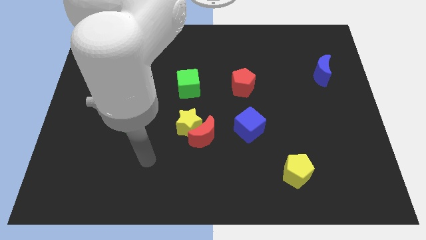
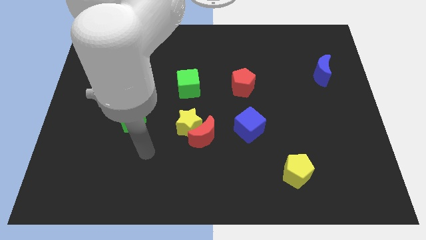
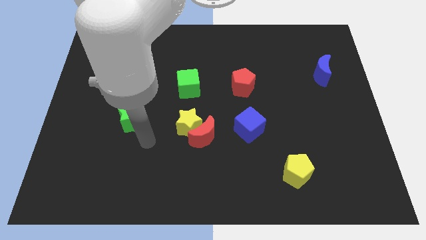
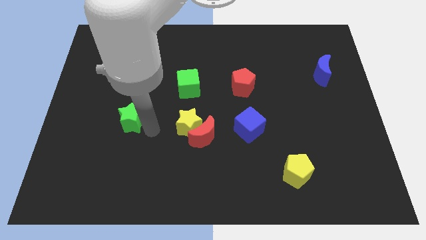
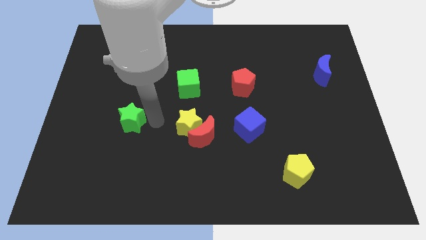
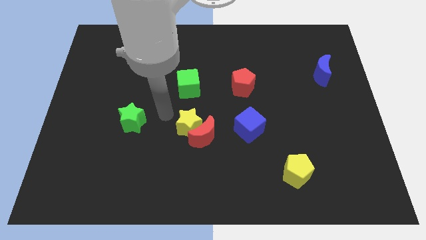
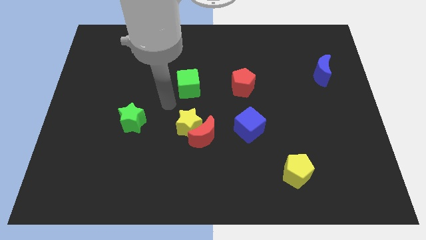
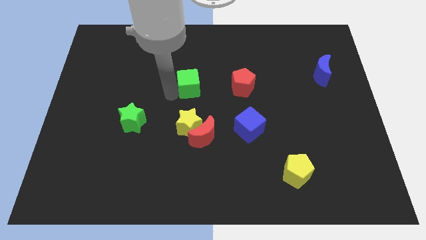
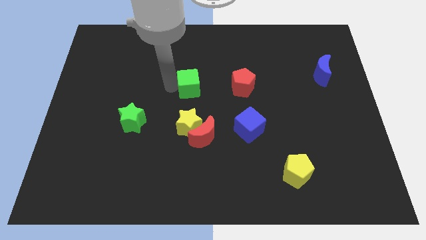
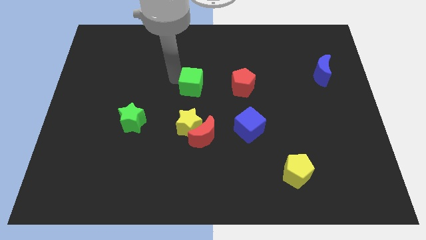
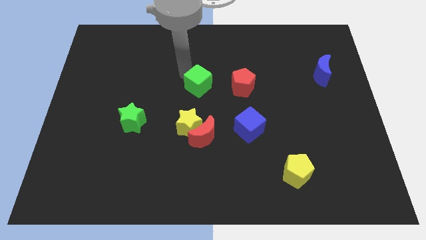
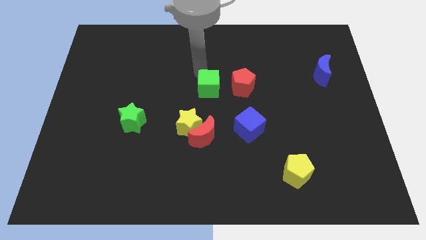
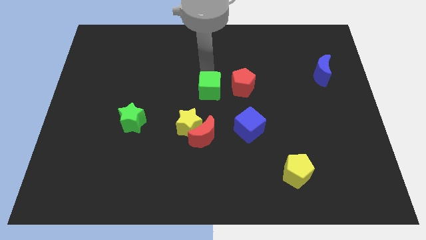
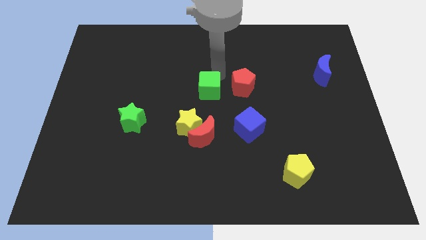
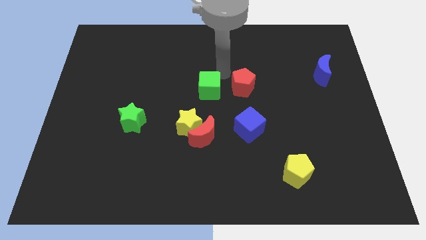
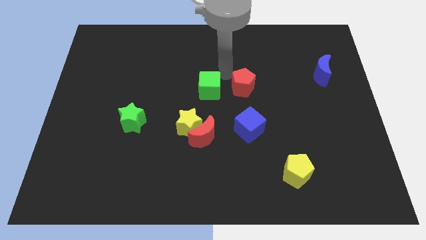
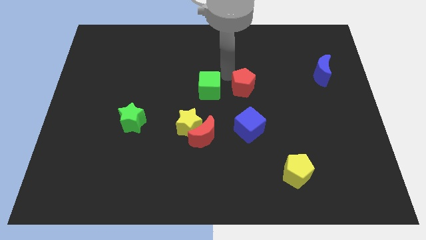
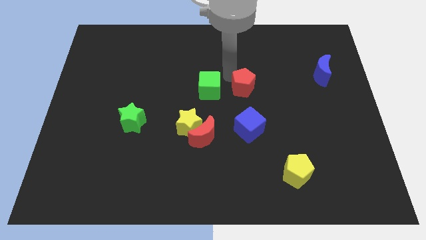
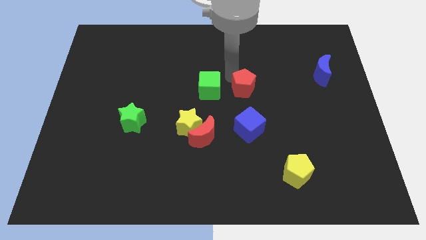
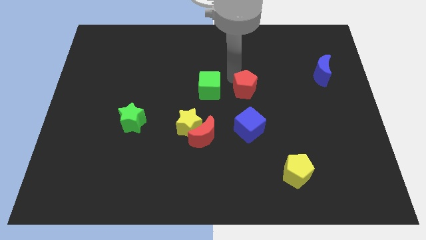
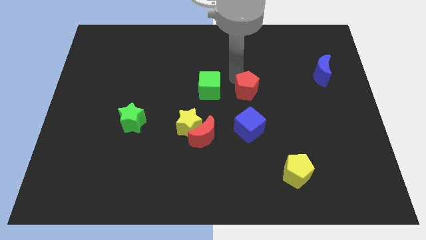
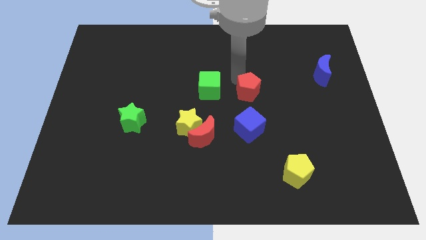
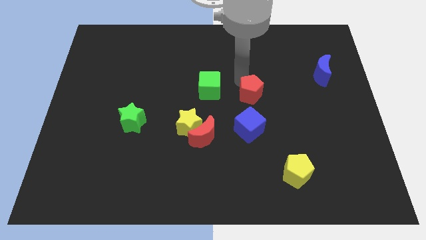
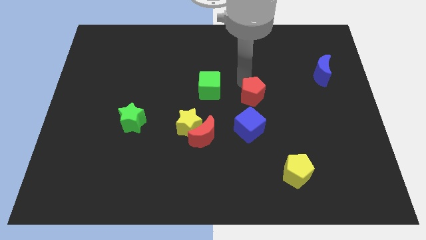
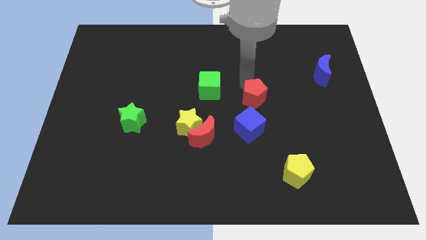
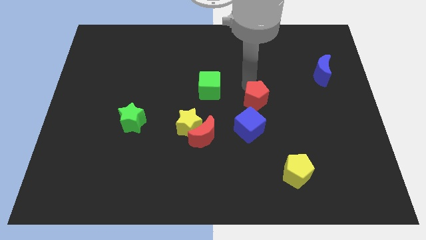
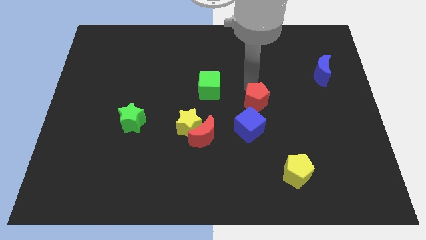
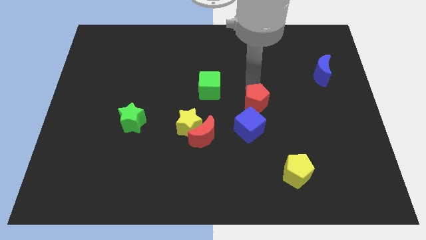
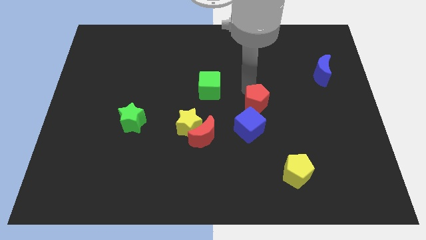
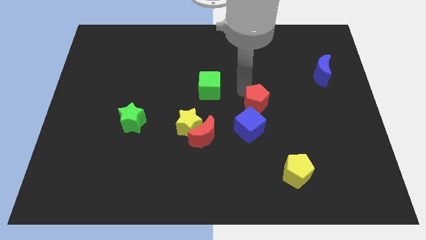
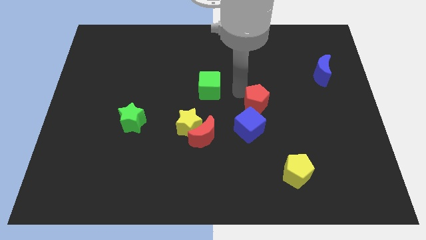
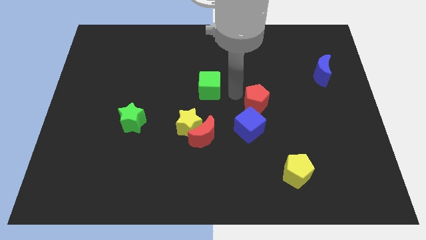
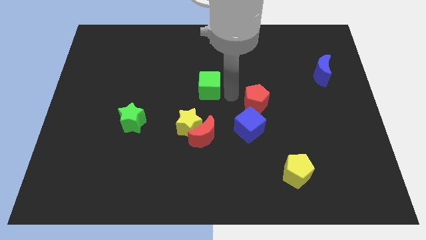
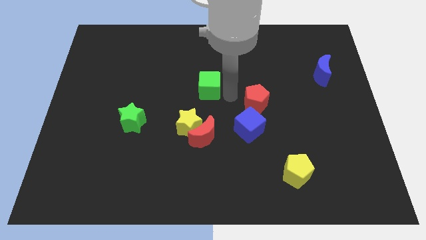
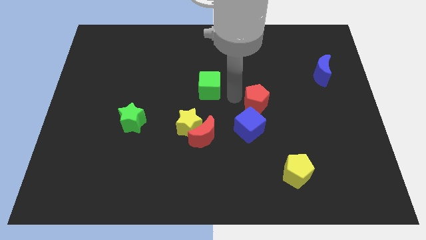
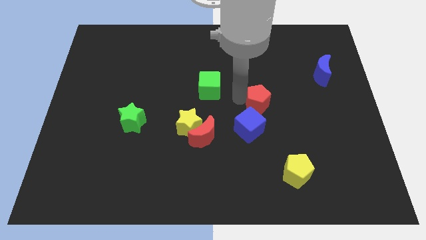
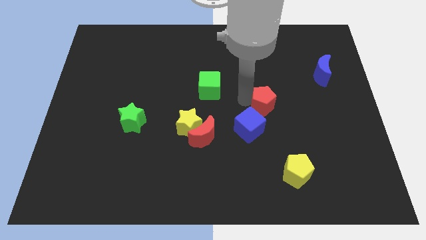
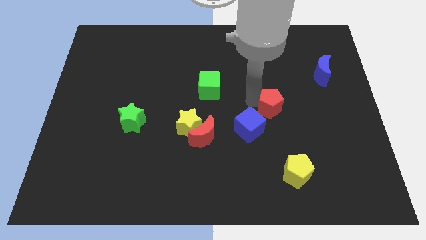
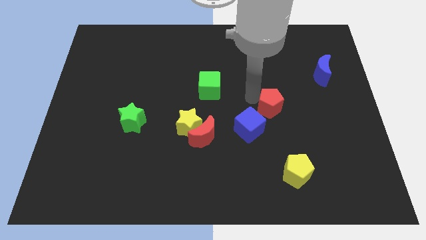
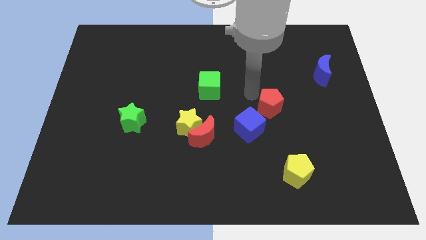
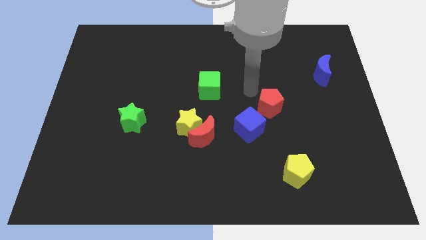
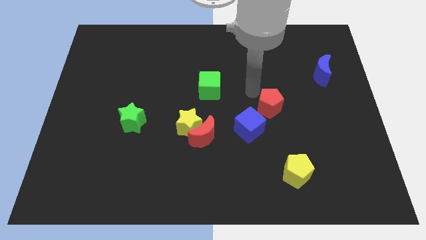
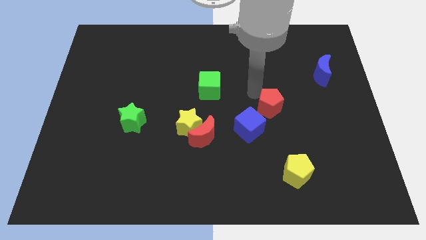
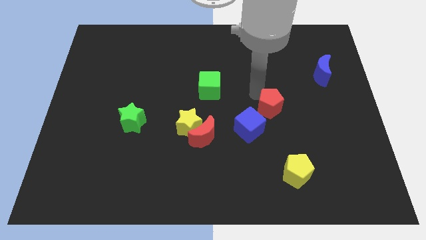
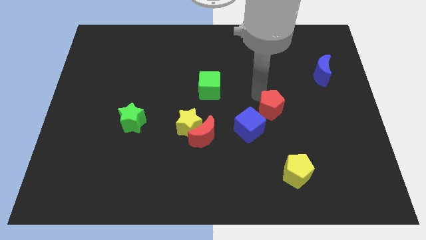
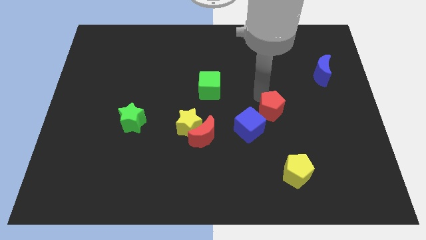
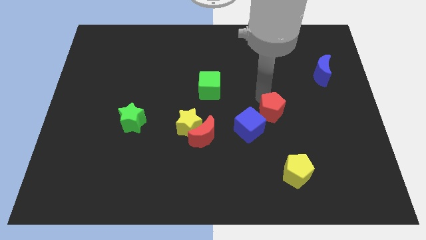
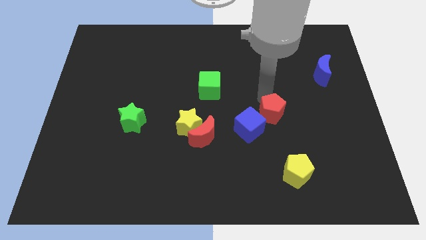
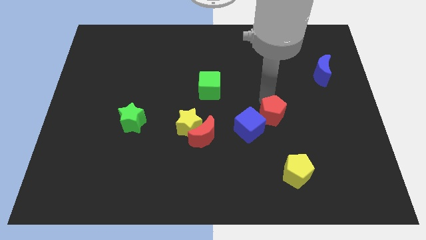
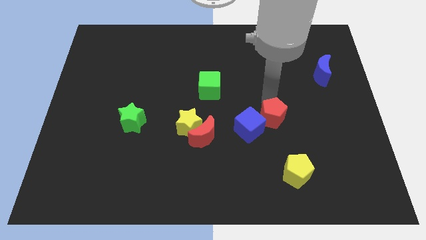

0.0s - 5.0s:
put the red pentagon above the yellow pentagon

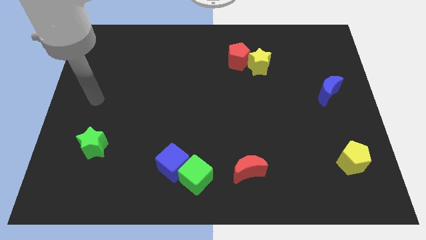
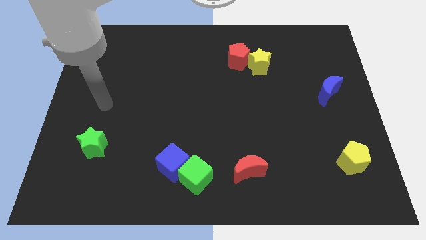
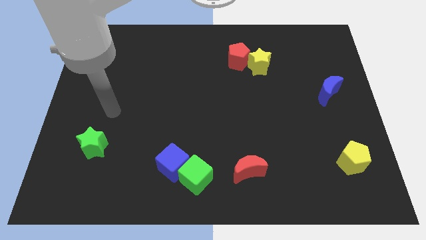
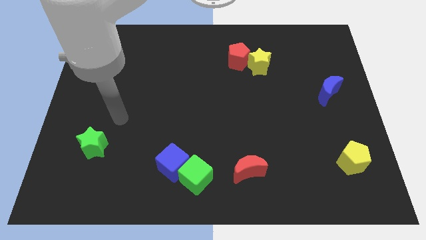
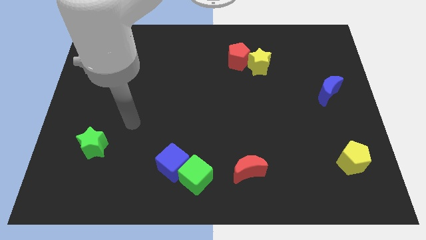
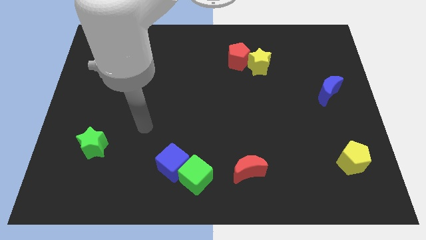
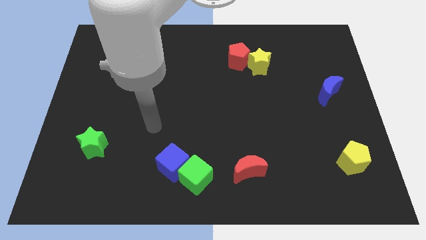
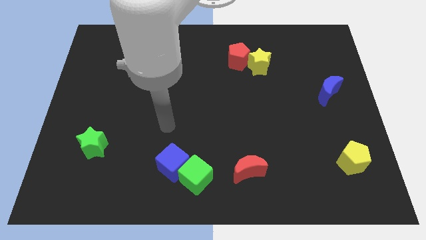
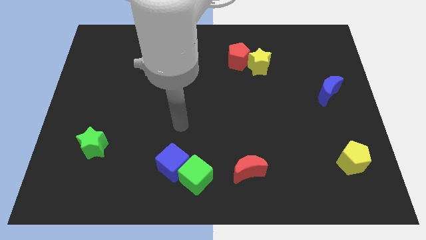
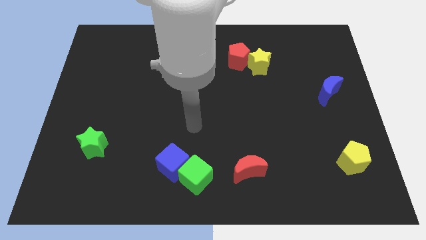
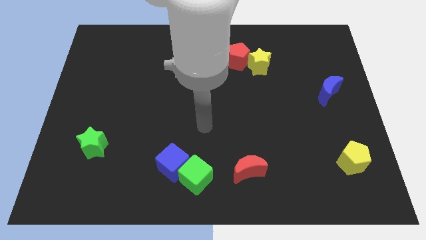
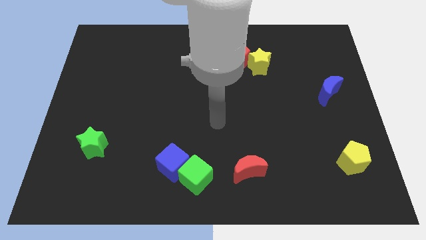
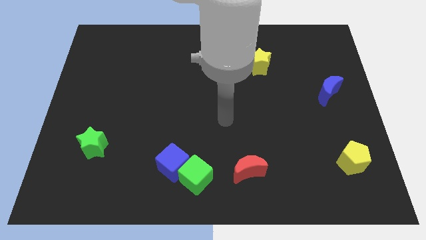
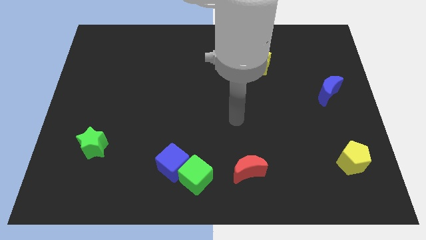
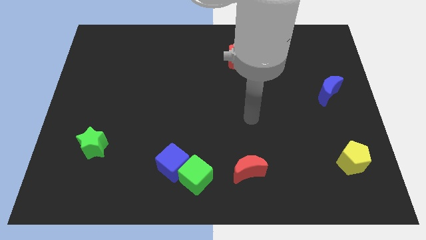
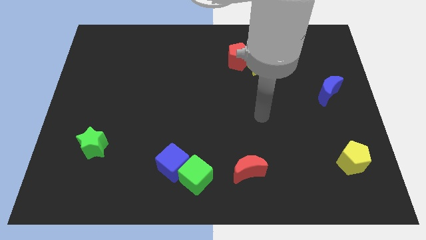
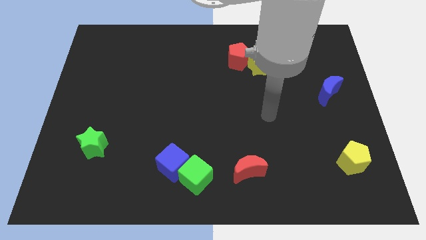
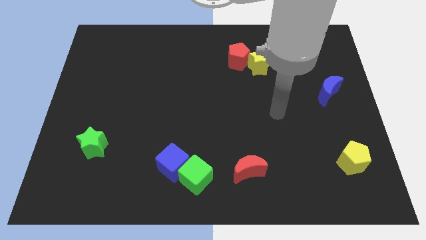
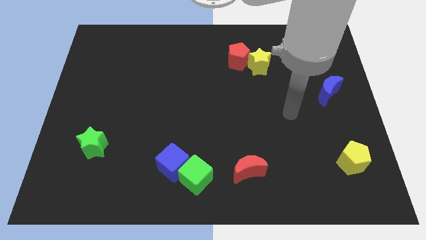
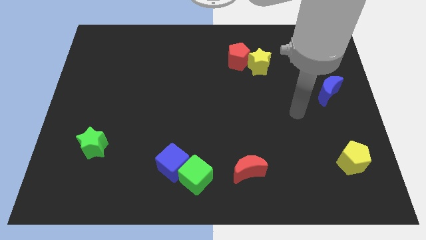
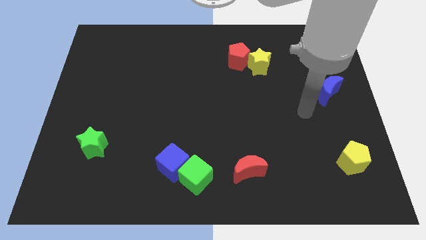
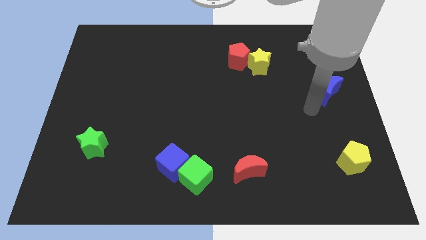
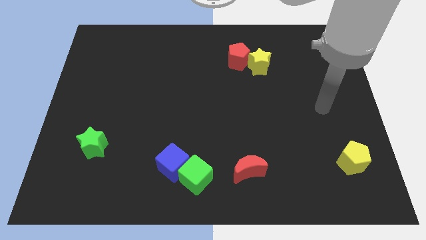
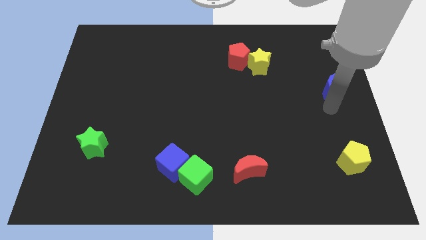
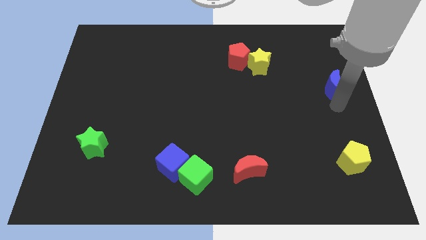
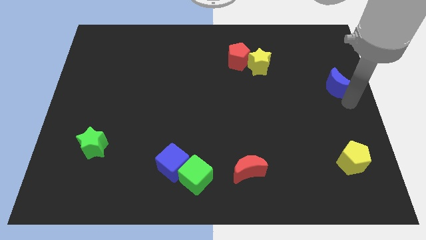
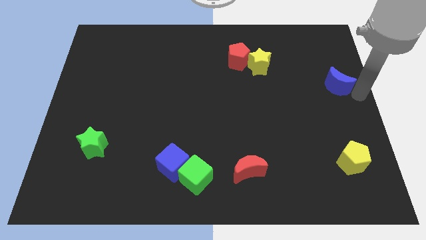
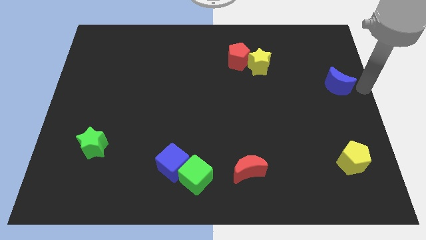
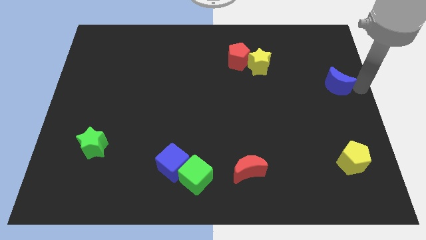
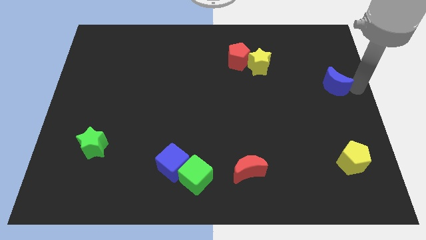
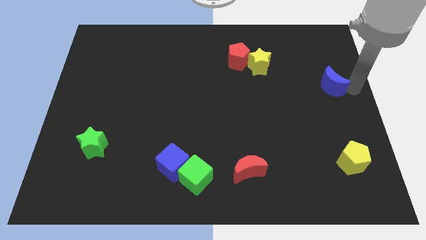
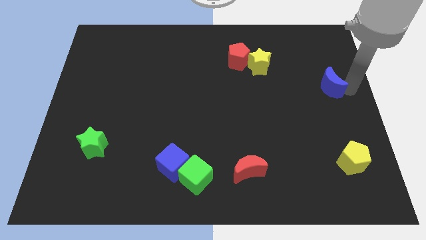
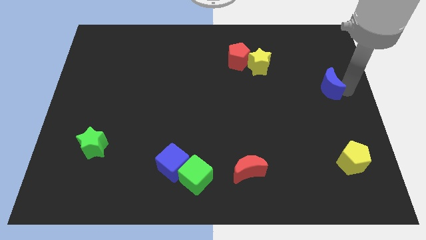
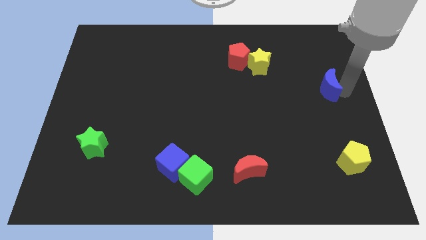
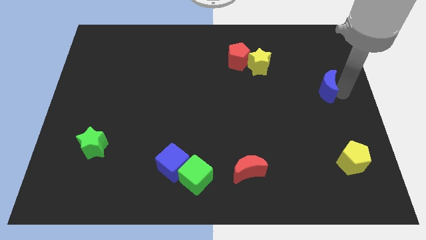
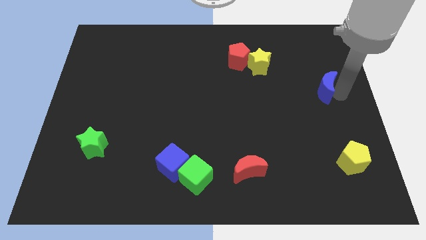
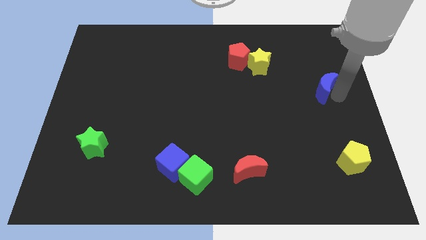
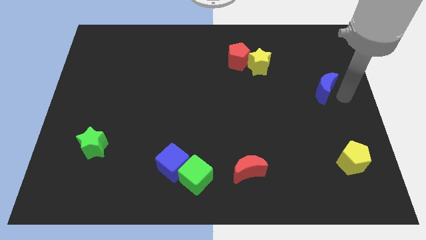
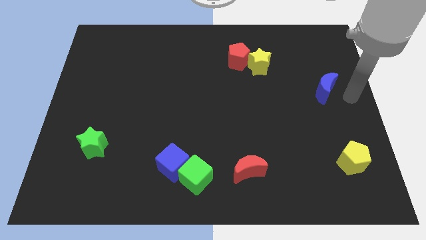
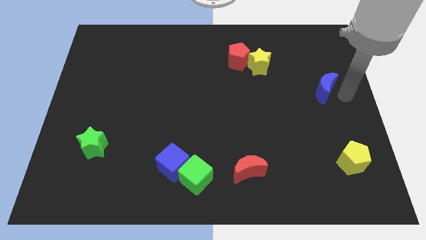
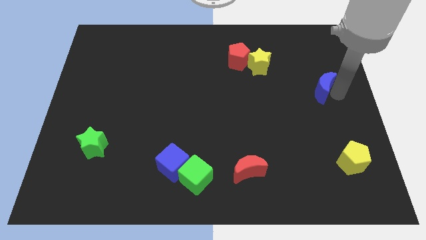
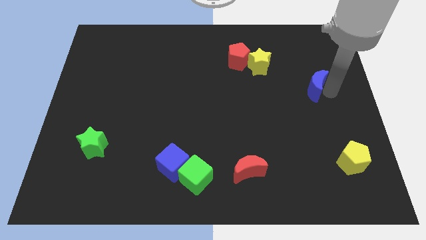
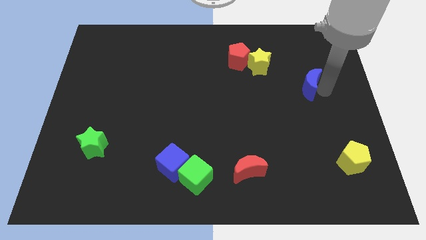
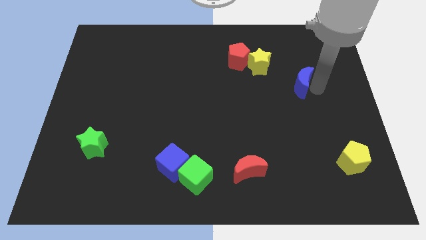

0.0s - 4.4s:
move the blue moon to the bottom right of the yellow star
